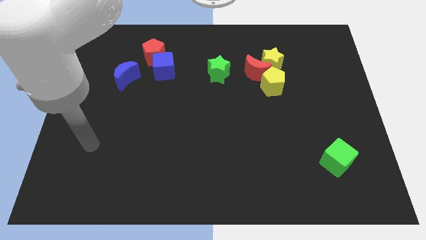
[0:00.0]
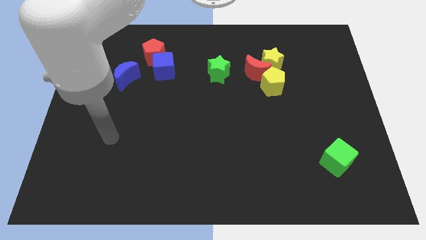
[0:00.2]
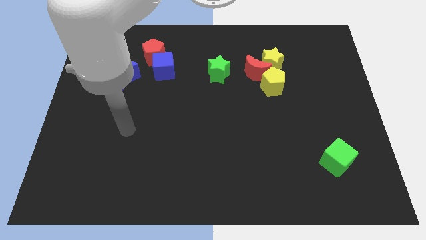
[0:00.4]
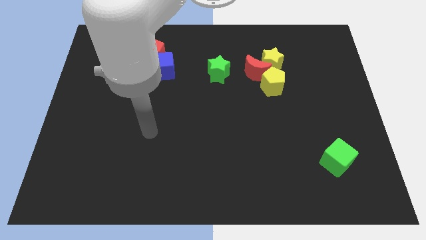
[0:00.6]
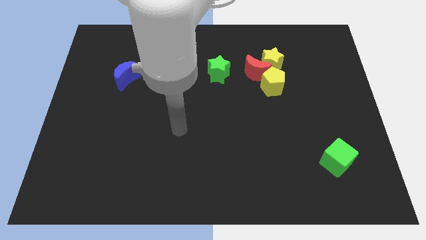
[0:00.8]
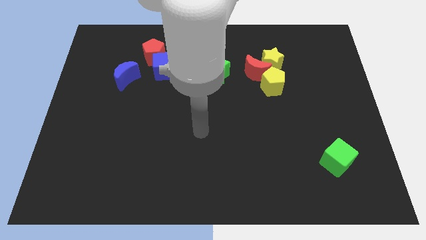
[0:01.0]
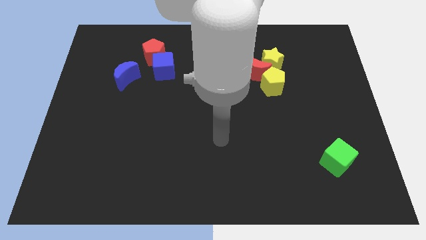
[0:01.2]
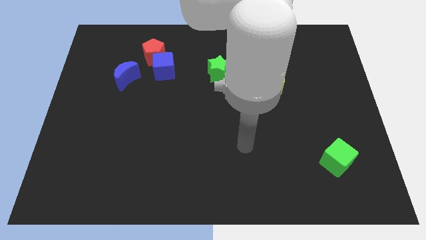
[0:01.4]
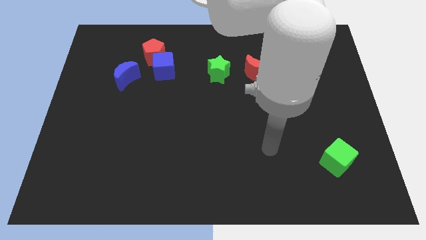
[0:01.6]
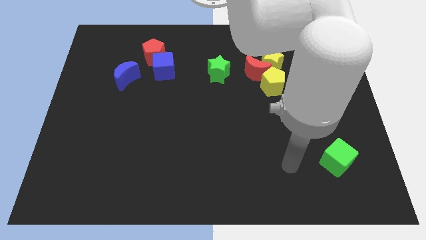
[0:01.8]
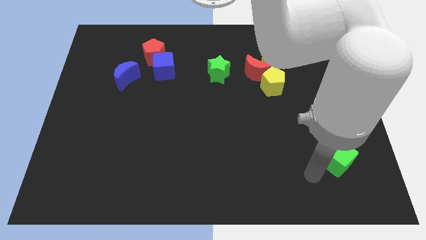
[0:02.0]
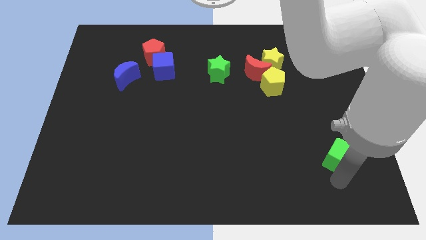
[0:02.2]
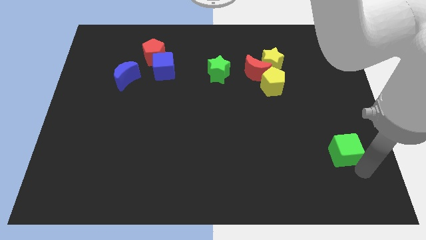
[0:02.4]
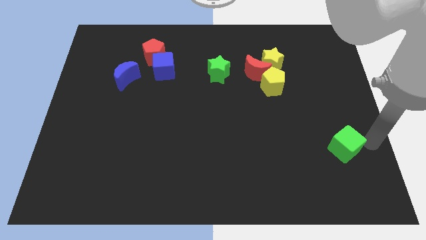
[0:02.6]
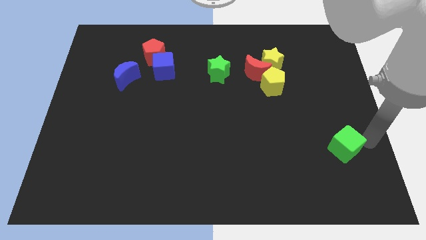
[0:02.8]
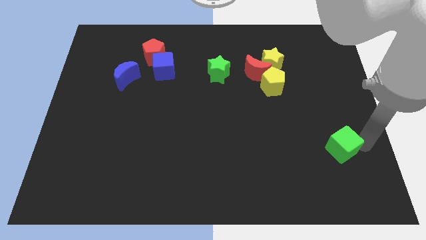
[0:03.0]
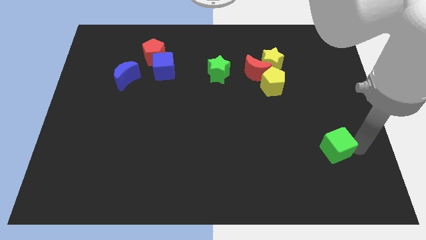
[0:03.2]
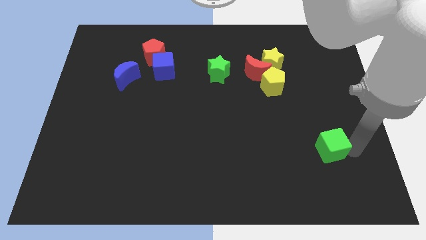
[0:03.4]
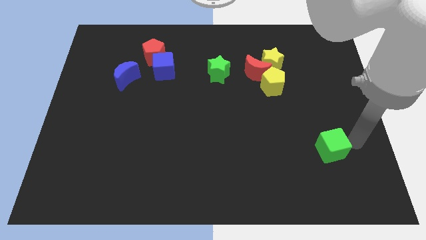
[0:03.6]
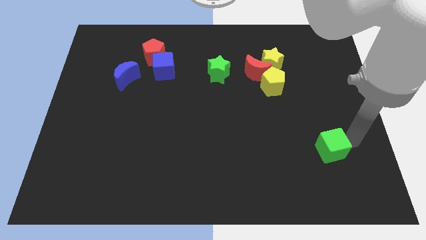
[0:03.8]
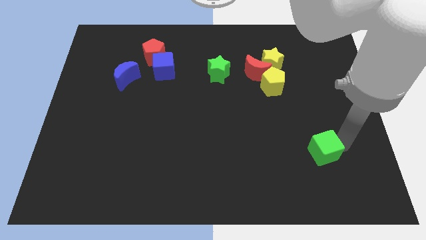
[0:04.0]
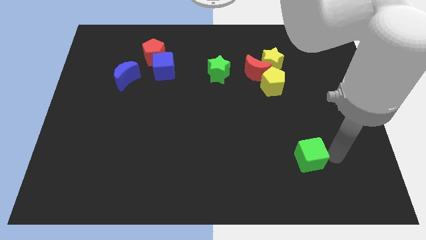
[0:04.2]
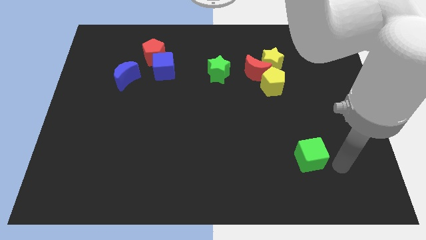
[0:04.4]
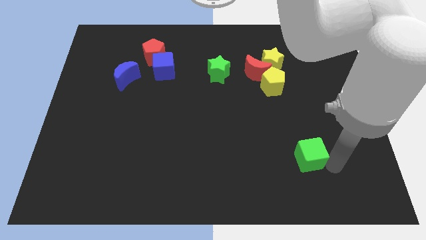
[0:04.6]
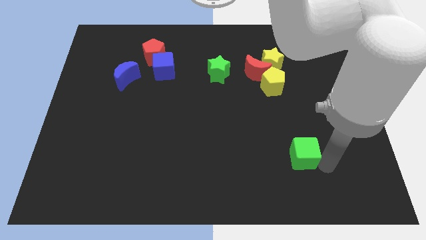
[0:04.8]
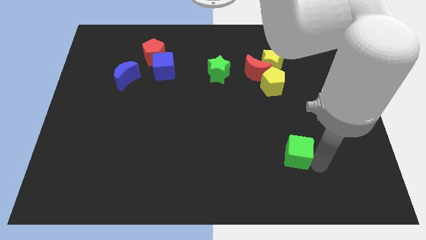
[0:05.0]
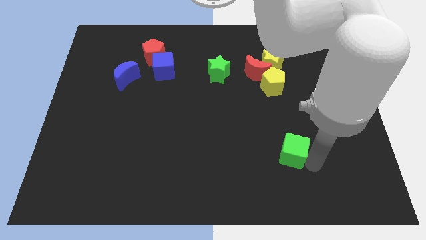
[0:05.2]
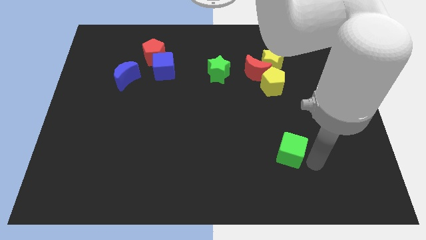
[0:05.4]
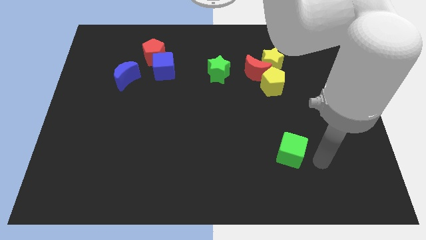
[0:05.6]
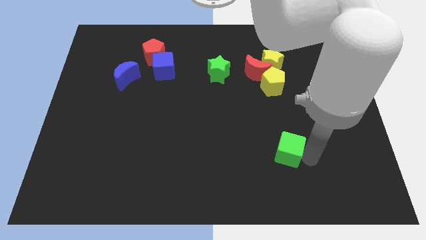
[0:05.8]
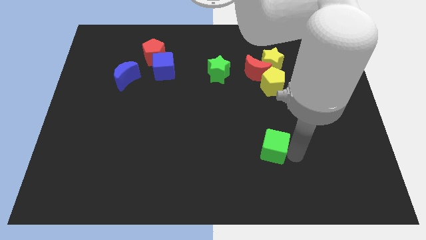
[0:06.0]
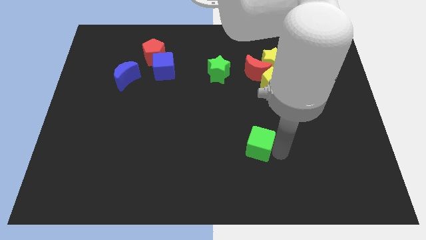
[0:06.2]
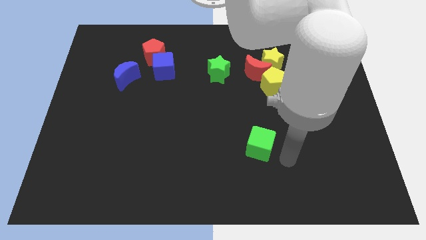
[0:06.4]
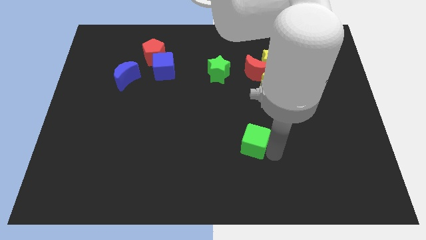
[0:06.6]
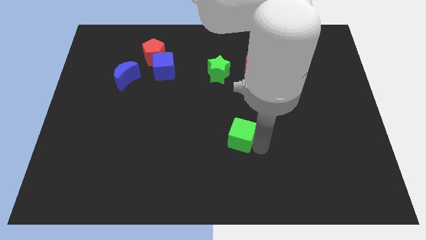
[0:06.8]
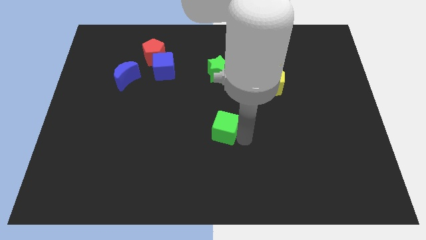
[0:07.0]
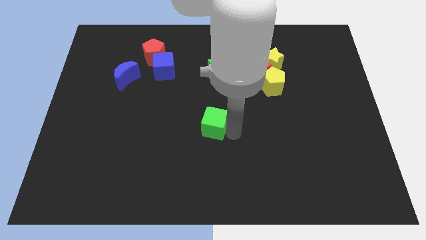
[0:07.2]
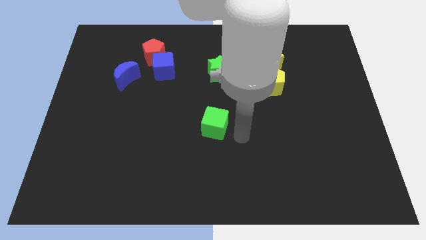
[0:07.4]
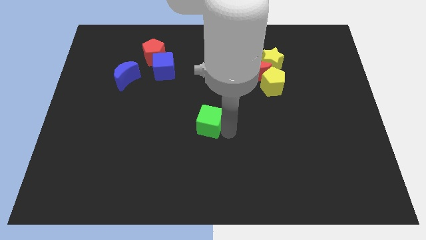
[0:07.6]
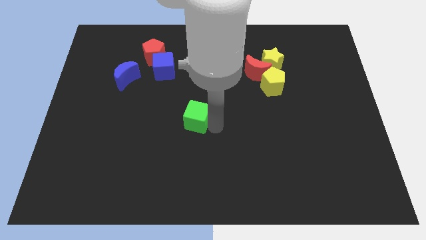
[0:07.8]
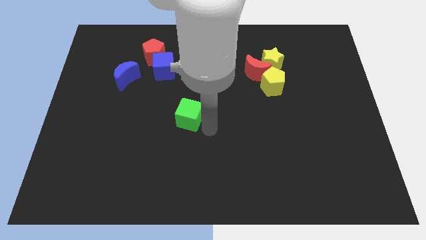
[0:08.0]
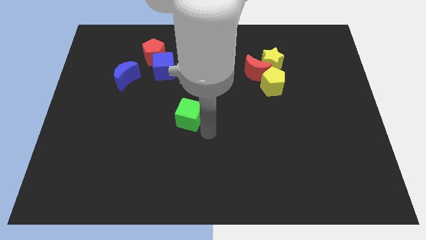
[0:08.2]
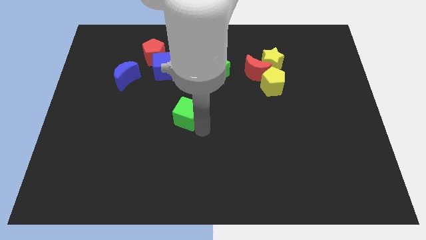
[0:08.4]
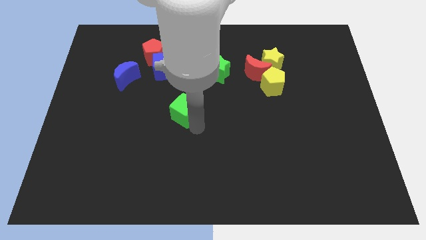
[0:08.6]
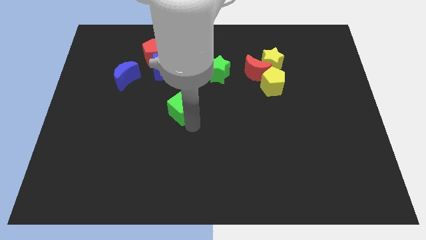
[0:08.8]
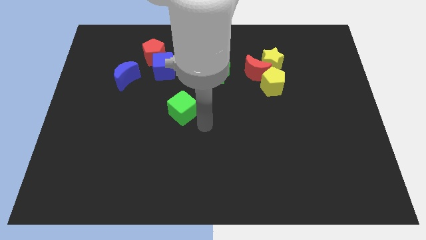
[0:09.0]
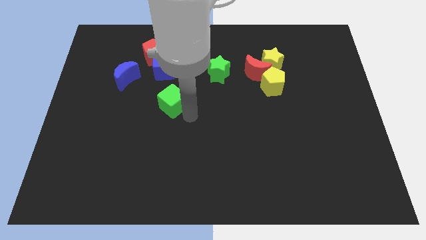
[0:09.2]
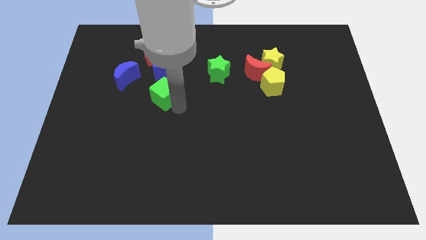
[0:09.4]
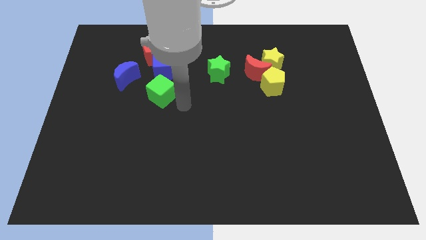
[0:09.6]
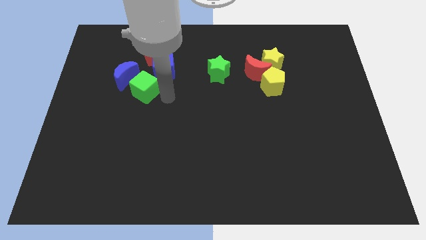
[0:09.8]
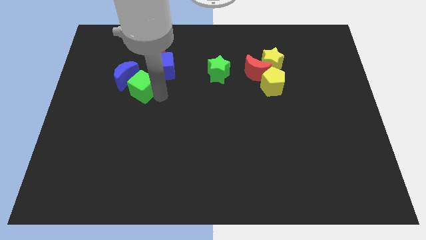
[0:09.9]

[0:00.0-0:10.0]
push the green cube next to the blue moon

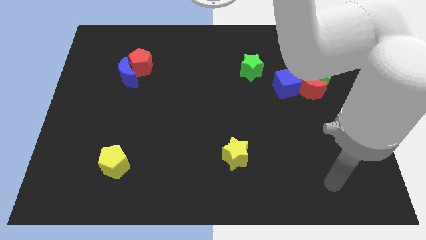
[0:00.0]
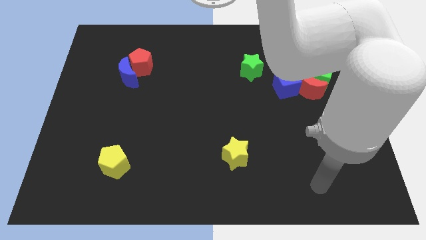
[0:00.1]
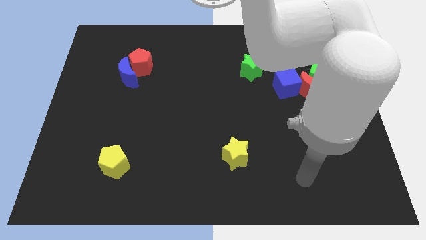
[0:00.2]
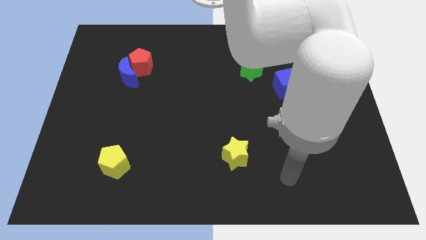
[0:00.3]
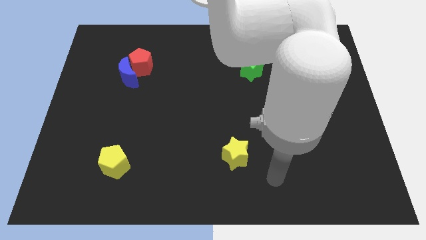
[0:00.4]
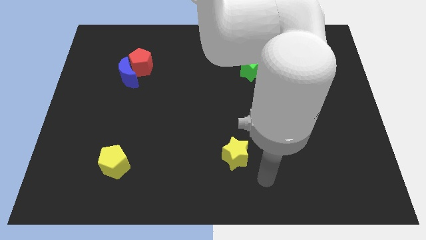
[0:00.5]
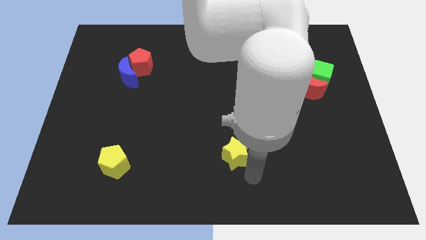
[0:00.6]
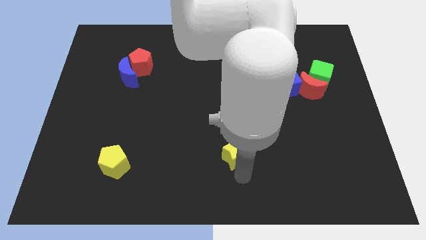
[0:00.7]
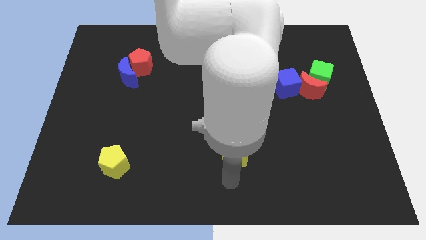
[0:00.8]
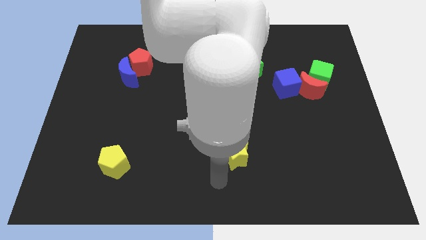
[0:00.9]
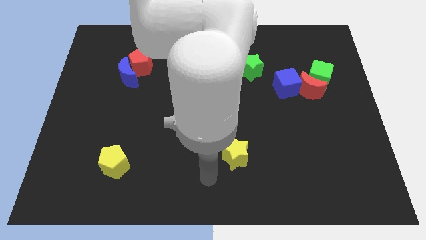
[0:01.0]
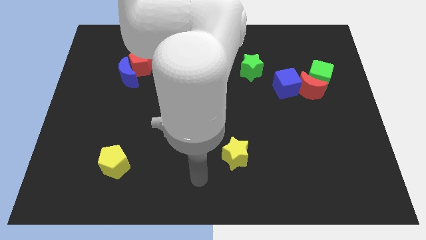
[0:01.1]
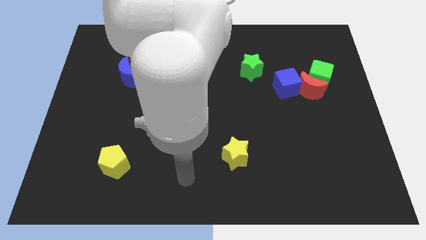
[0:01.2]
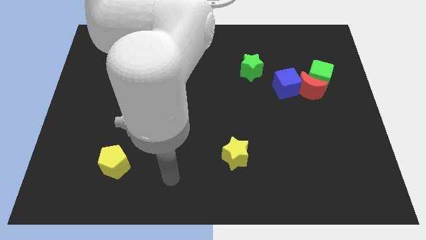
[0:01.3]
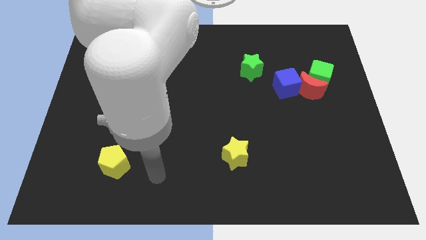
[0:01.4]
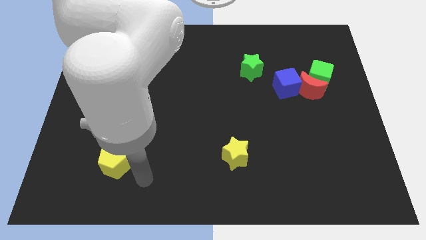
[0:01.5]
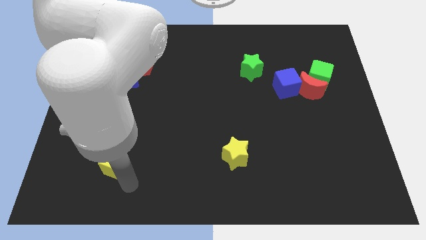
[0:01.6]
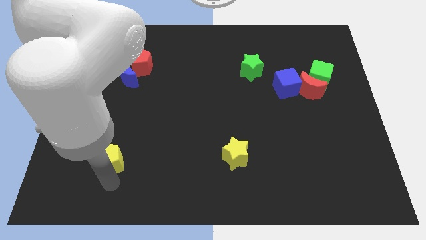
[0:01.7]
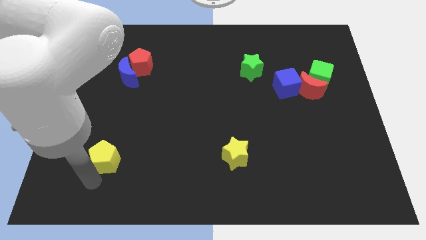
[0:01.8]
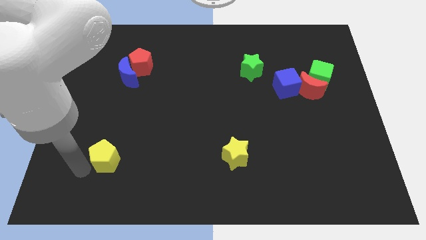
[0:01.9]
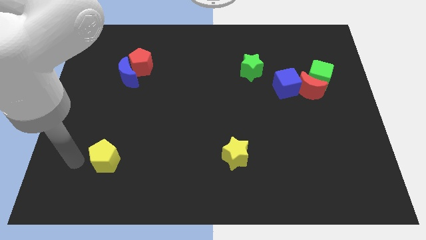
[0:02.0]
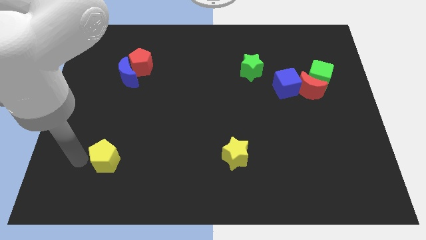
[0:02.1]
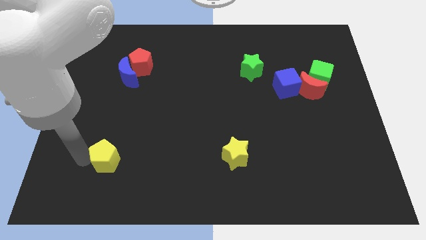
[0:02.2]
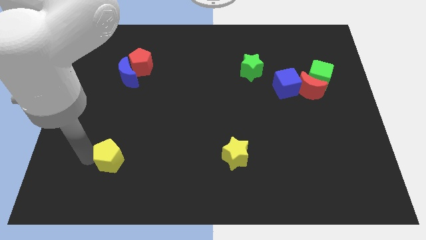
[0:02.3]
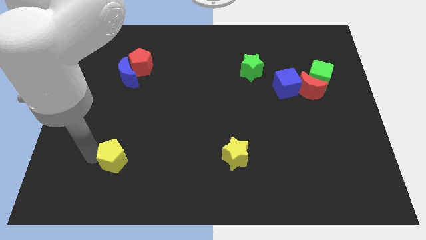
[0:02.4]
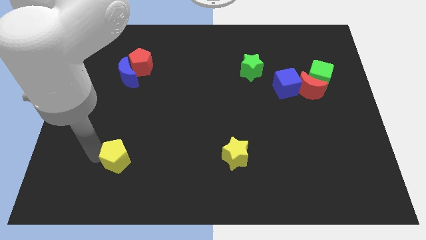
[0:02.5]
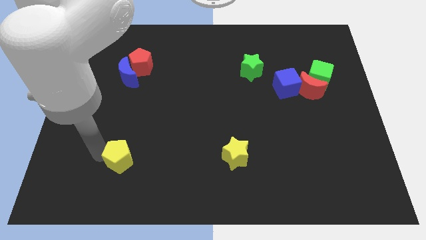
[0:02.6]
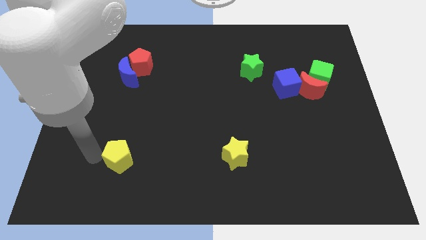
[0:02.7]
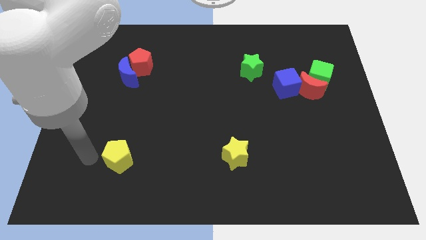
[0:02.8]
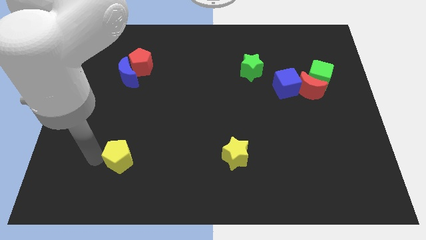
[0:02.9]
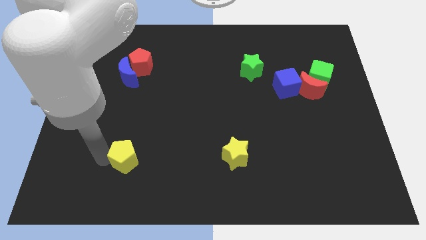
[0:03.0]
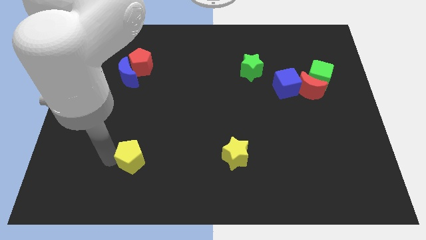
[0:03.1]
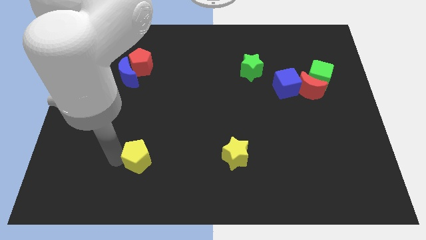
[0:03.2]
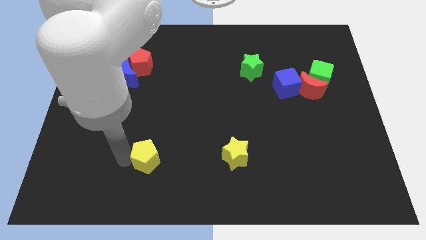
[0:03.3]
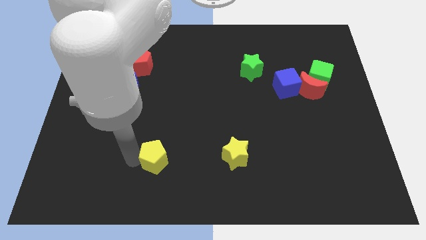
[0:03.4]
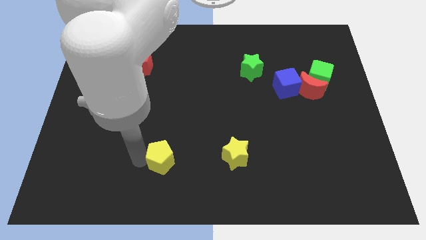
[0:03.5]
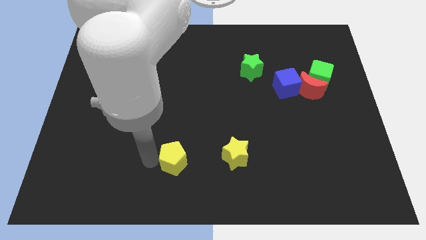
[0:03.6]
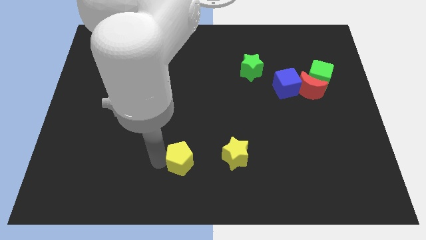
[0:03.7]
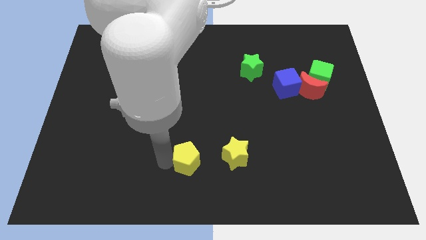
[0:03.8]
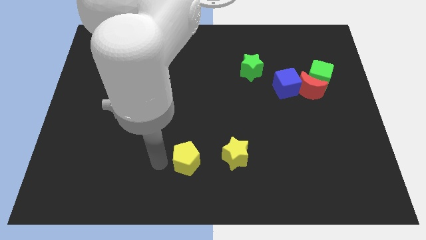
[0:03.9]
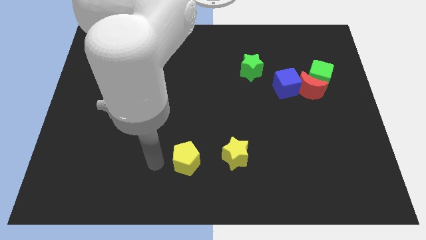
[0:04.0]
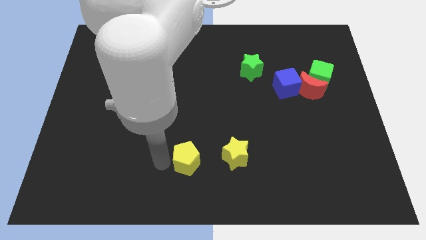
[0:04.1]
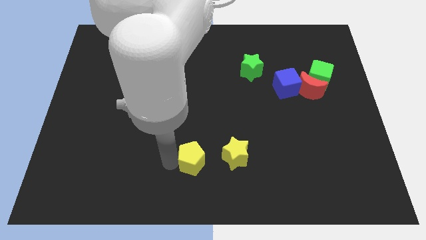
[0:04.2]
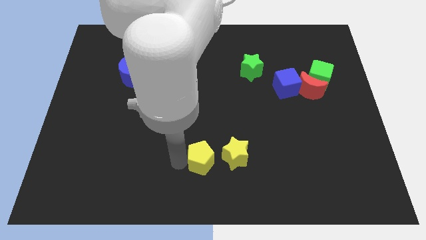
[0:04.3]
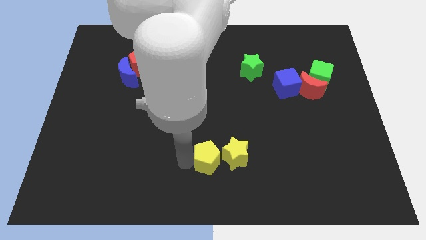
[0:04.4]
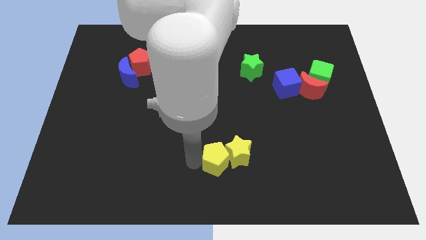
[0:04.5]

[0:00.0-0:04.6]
move the yellow pentagon to the yellow star
